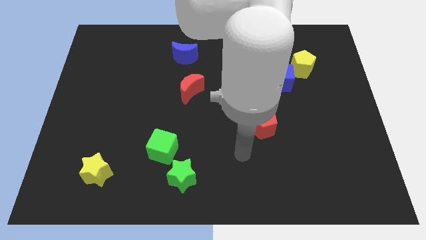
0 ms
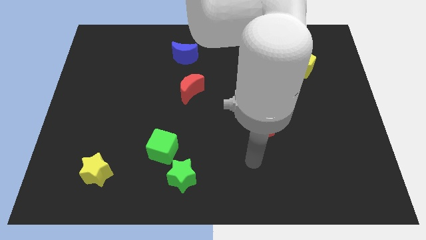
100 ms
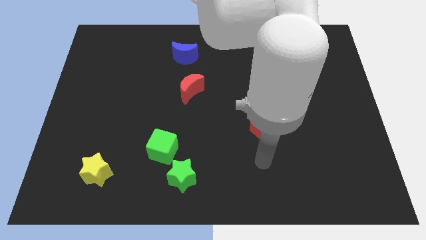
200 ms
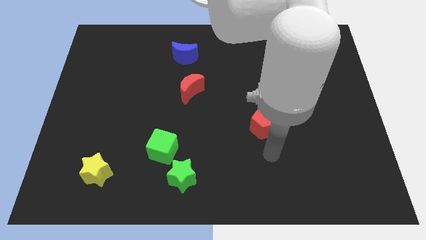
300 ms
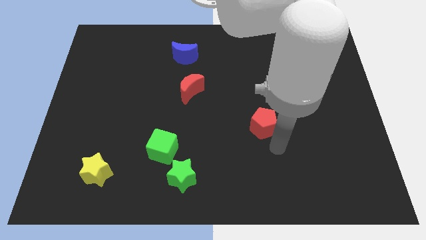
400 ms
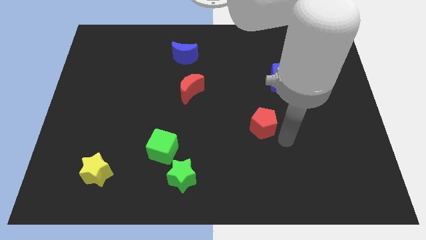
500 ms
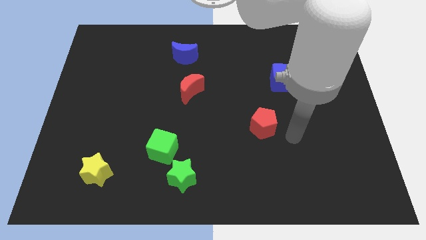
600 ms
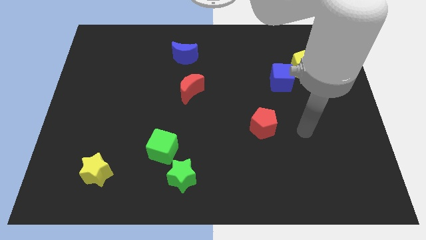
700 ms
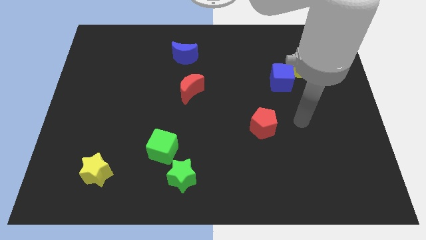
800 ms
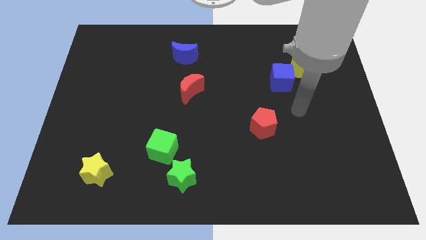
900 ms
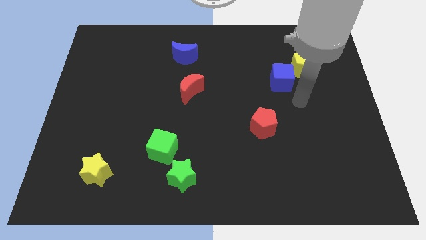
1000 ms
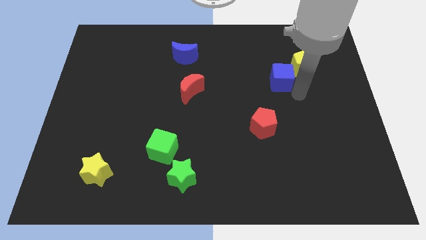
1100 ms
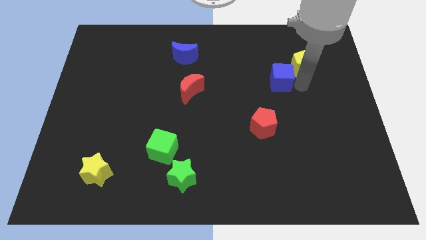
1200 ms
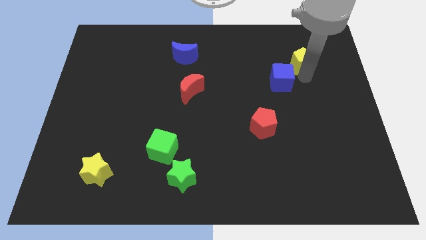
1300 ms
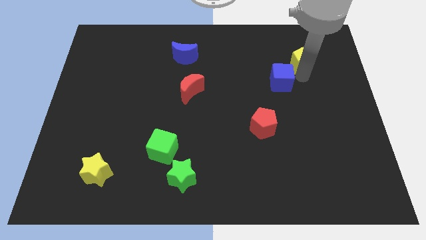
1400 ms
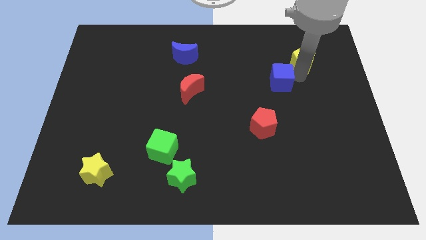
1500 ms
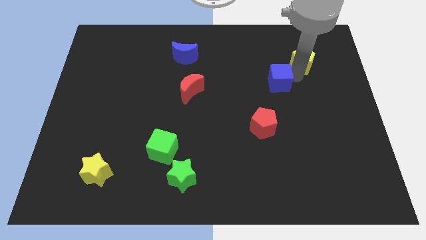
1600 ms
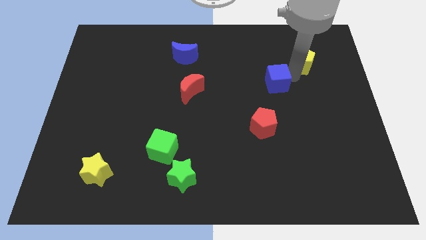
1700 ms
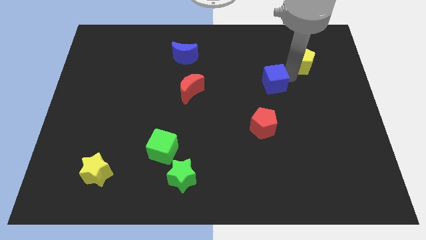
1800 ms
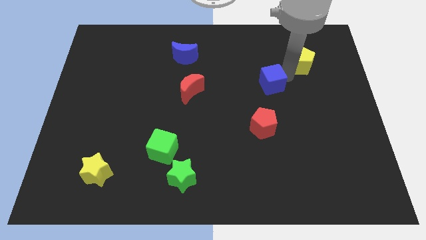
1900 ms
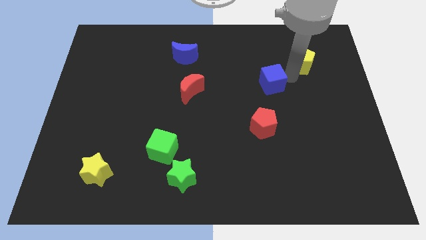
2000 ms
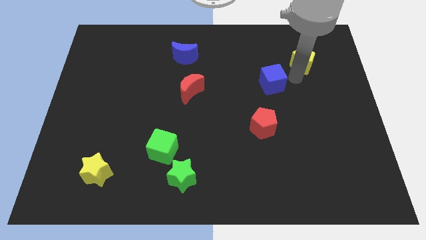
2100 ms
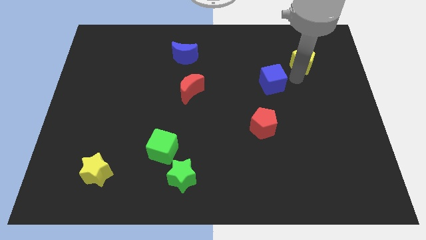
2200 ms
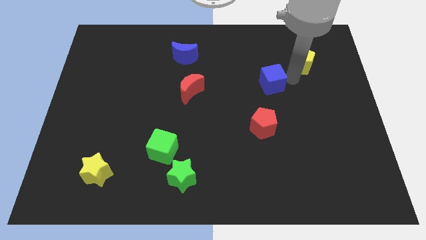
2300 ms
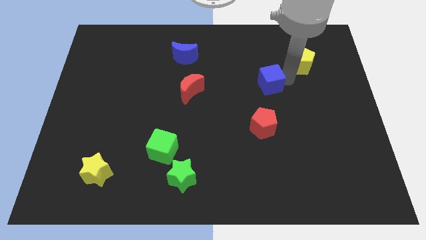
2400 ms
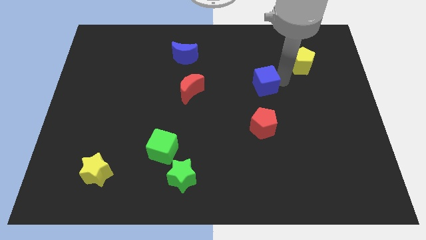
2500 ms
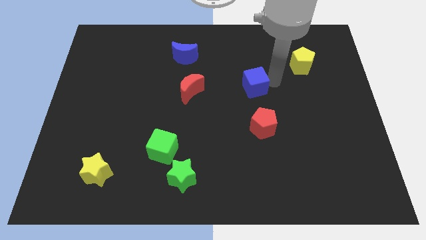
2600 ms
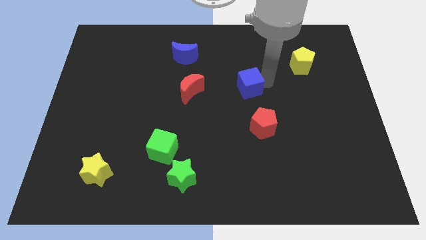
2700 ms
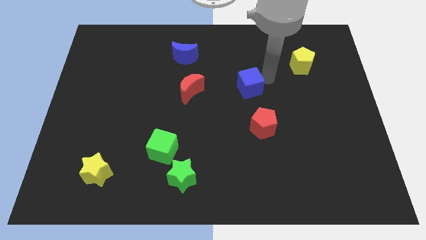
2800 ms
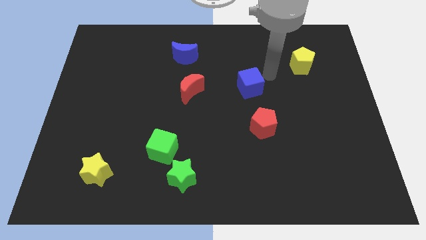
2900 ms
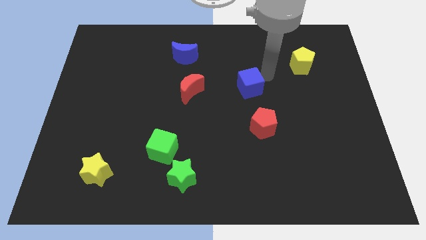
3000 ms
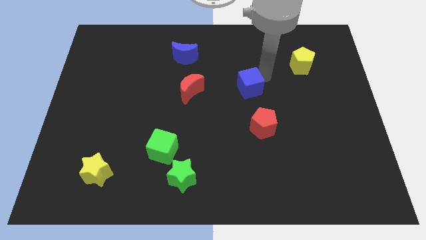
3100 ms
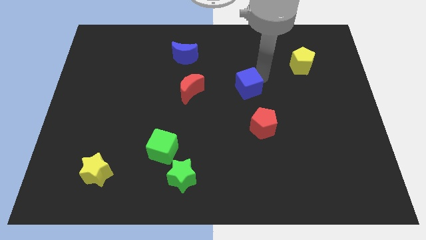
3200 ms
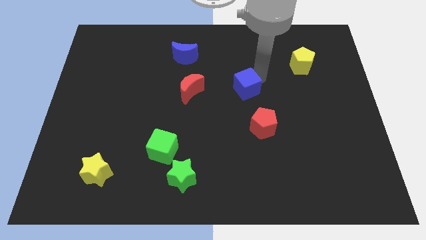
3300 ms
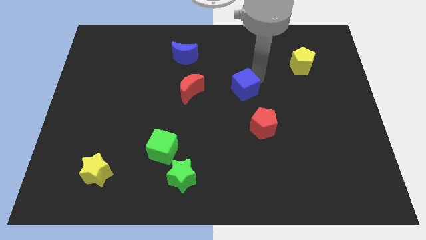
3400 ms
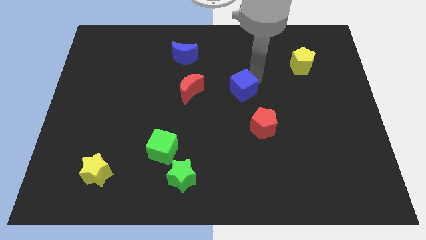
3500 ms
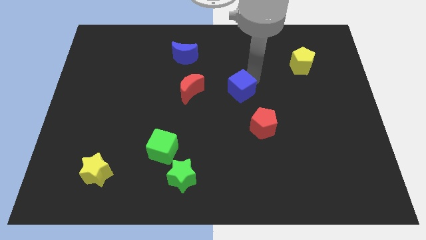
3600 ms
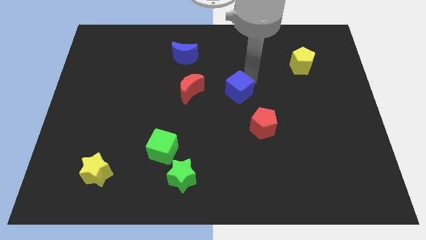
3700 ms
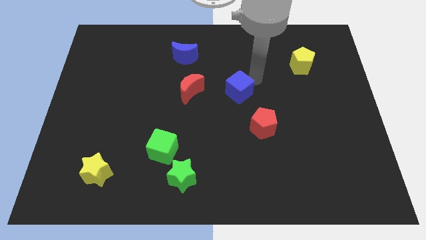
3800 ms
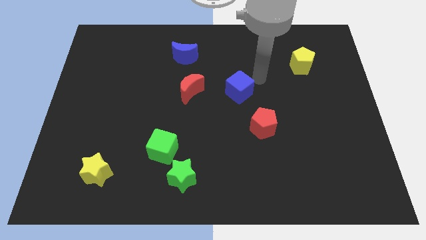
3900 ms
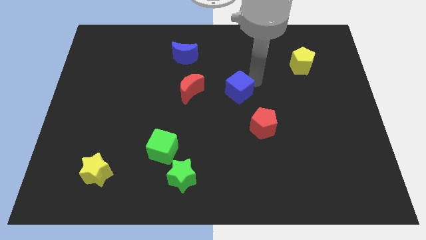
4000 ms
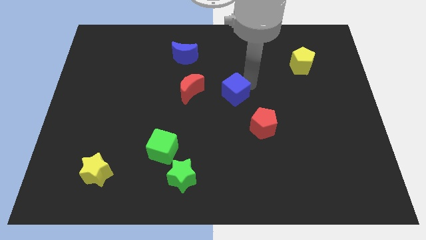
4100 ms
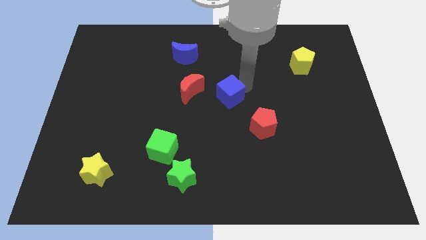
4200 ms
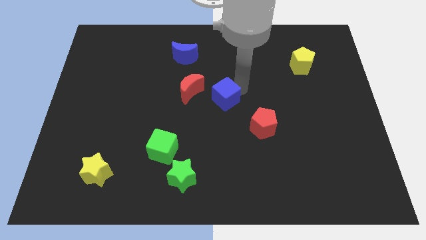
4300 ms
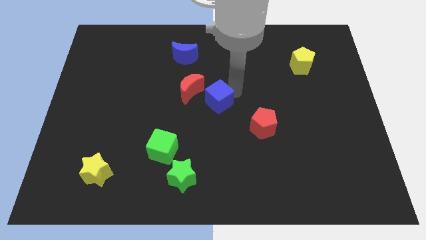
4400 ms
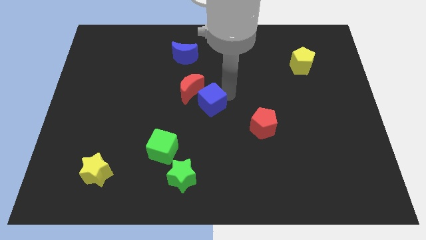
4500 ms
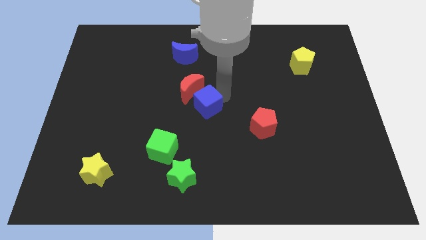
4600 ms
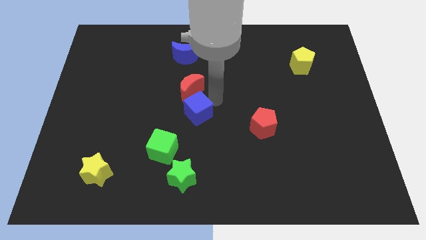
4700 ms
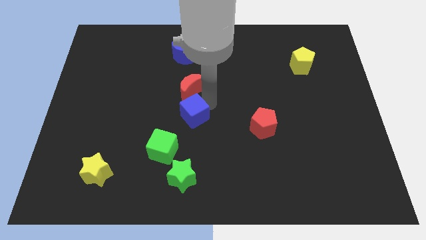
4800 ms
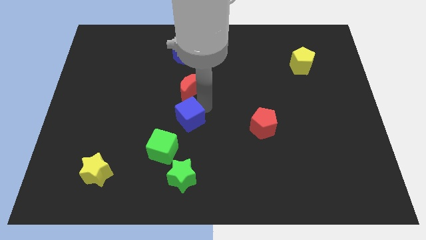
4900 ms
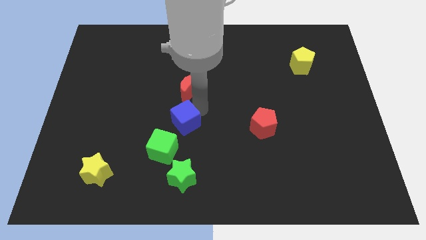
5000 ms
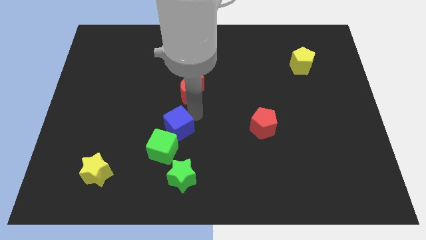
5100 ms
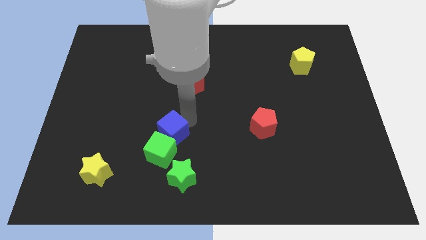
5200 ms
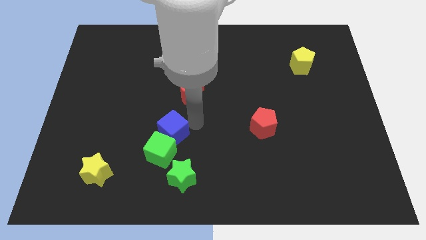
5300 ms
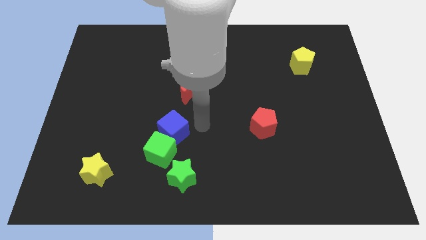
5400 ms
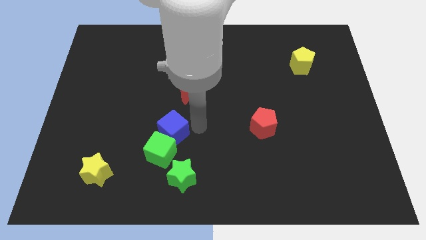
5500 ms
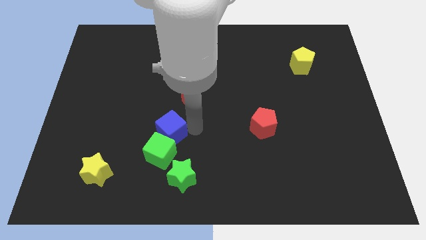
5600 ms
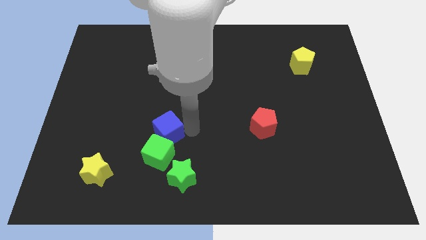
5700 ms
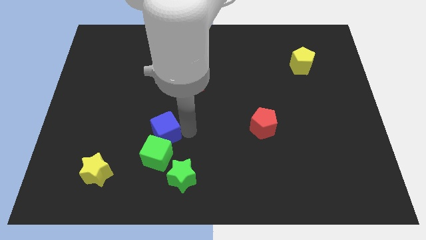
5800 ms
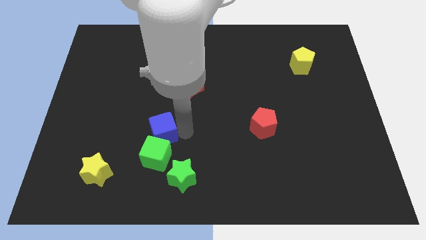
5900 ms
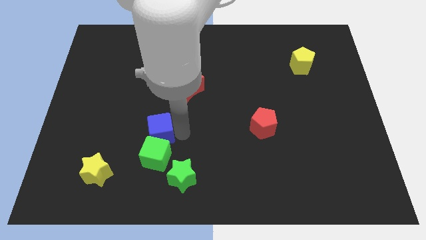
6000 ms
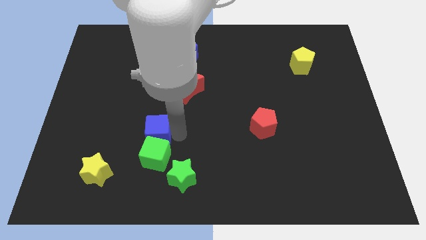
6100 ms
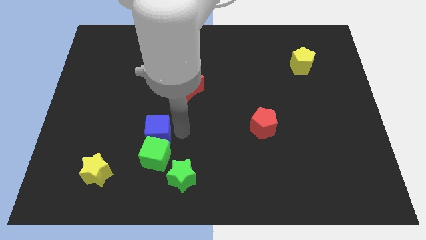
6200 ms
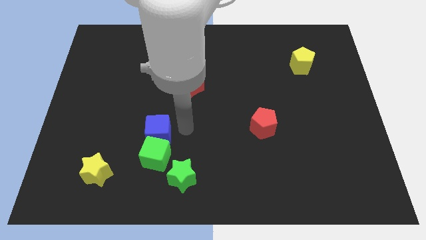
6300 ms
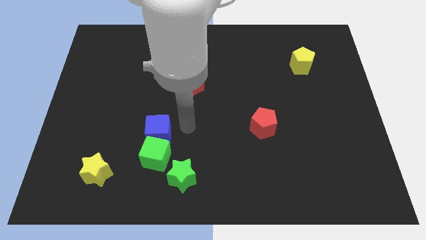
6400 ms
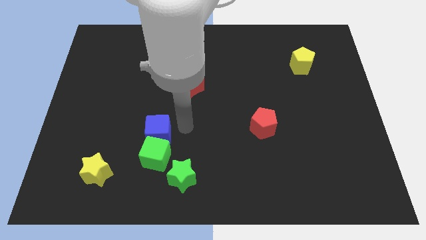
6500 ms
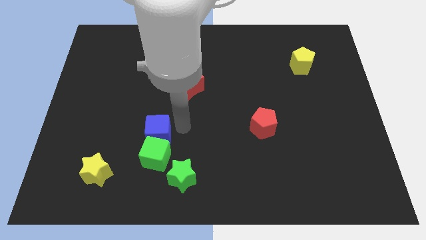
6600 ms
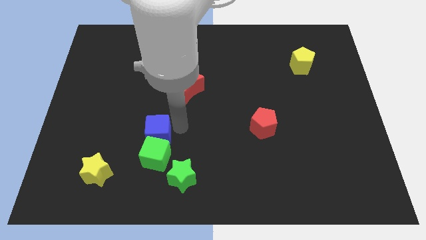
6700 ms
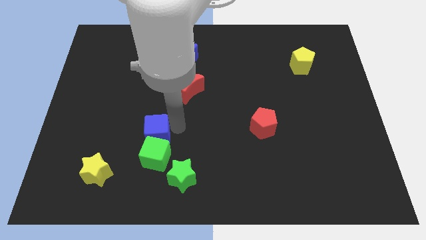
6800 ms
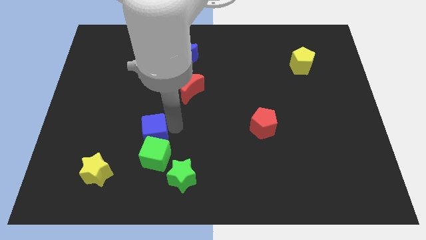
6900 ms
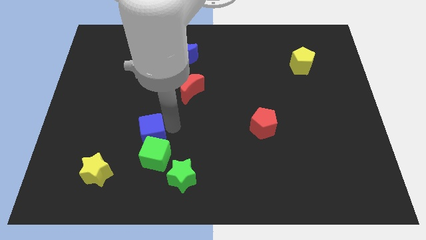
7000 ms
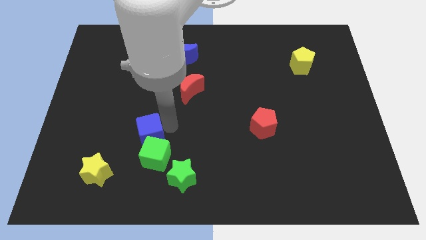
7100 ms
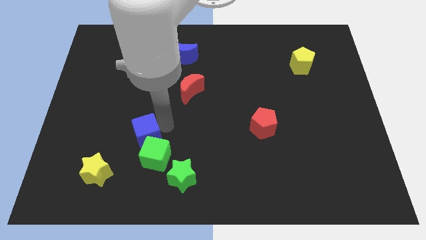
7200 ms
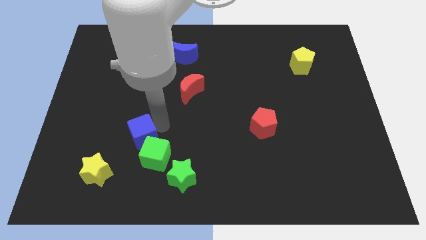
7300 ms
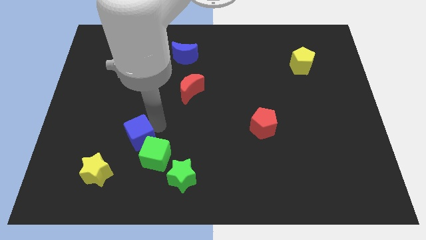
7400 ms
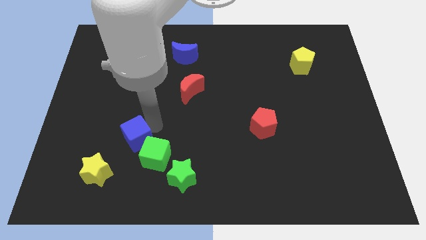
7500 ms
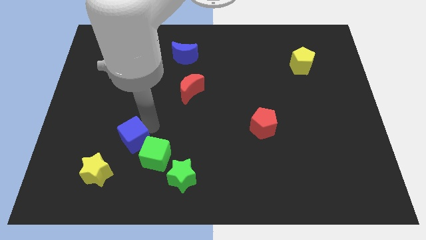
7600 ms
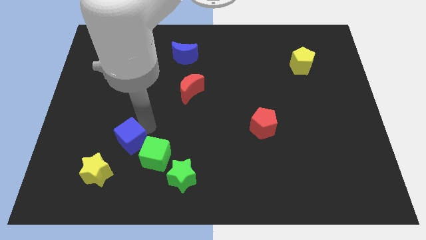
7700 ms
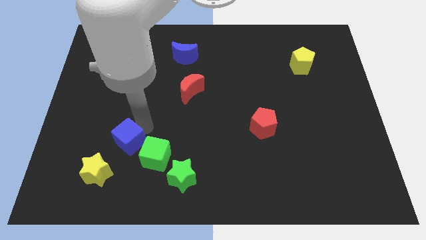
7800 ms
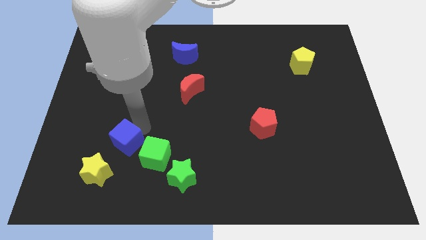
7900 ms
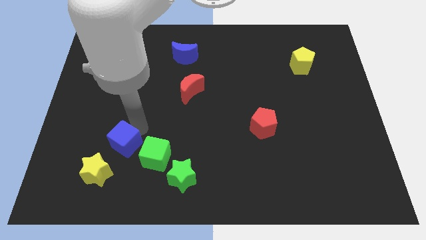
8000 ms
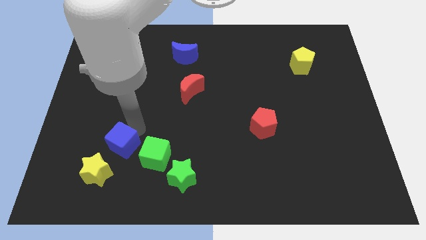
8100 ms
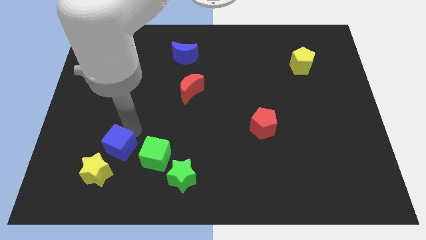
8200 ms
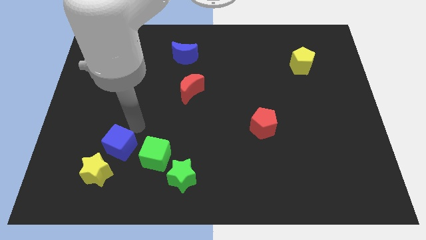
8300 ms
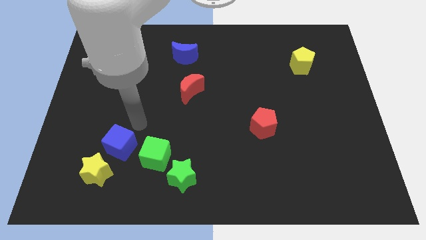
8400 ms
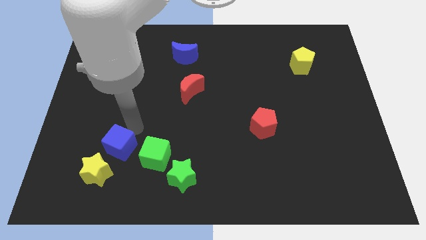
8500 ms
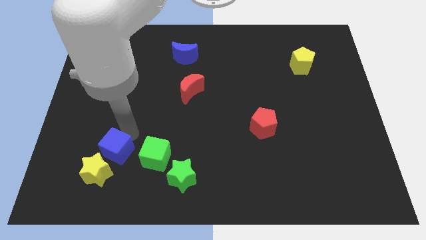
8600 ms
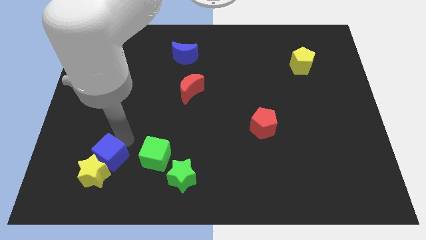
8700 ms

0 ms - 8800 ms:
put the blue cube close to the yellow star
